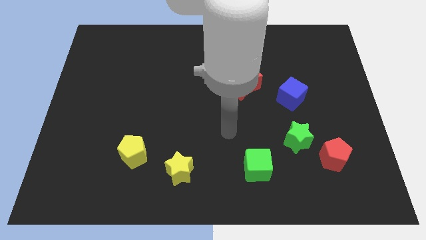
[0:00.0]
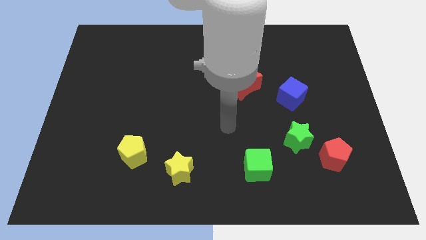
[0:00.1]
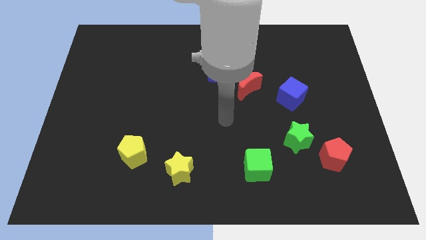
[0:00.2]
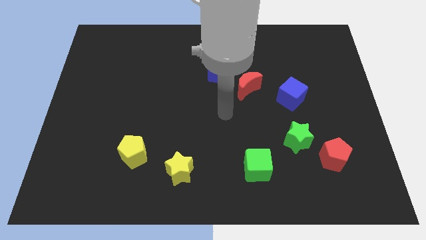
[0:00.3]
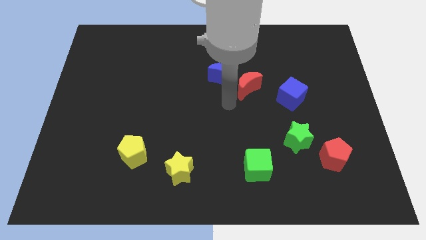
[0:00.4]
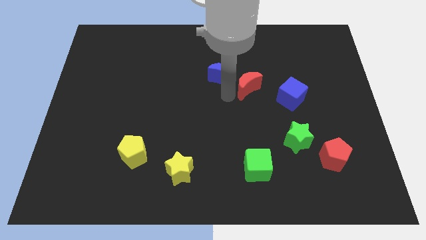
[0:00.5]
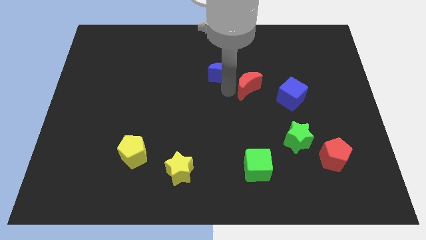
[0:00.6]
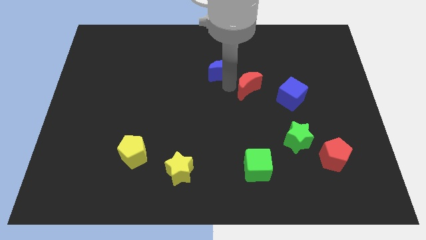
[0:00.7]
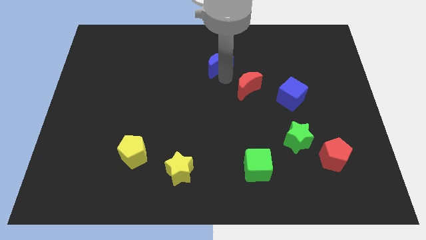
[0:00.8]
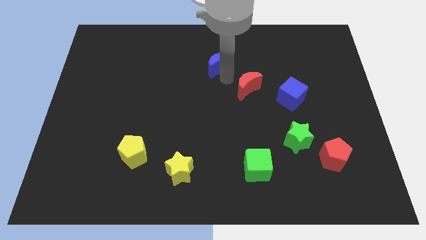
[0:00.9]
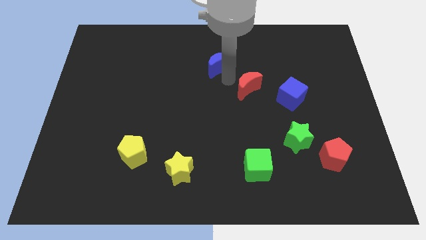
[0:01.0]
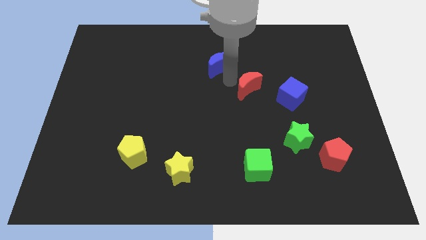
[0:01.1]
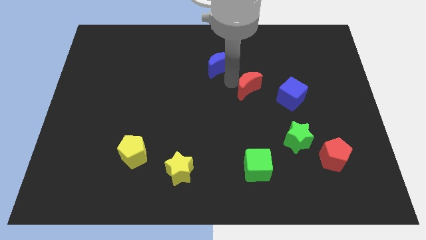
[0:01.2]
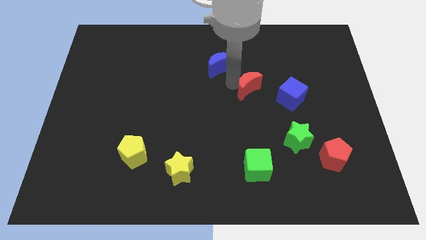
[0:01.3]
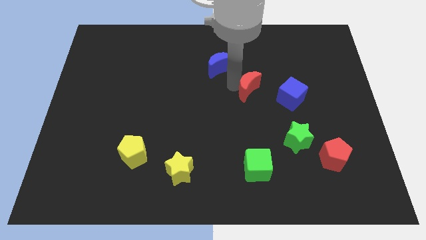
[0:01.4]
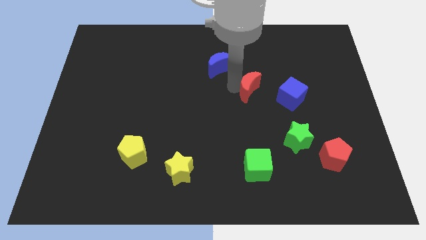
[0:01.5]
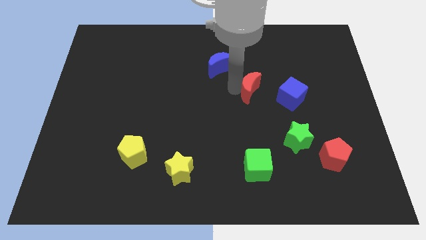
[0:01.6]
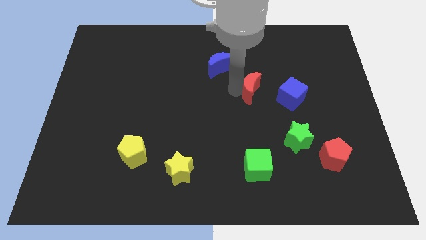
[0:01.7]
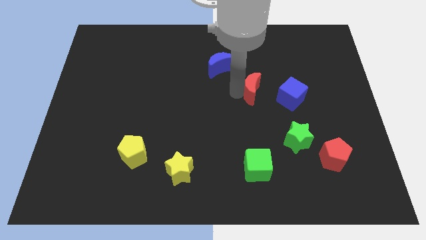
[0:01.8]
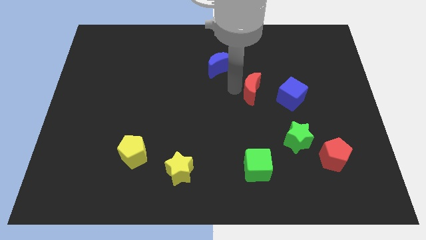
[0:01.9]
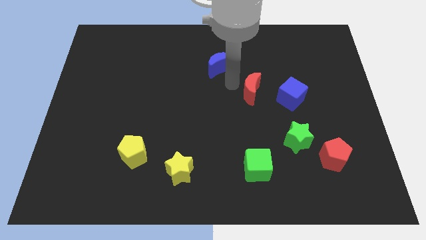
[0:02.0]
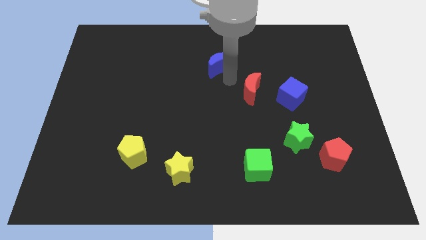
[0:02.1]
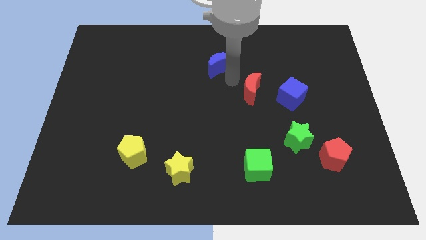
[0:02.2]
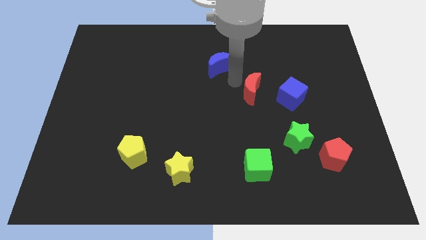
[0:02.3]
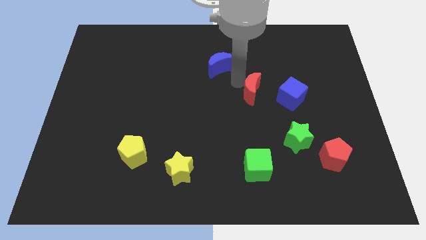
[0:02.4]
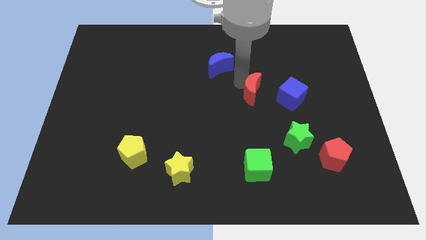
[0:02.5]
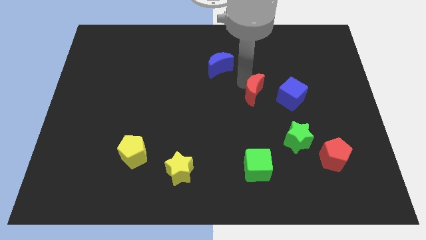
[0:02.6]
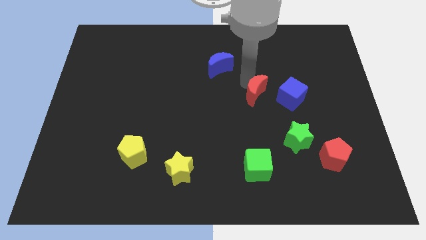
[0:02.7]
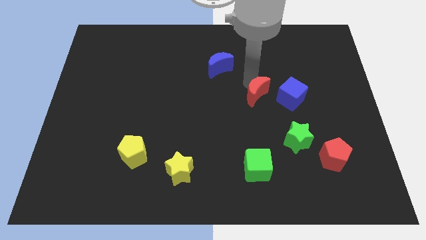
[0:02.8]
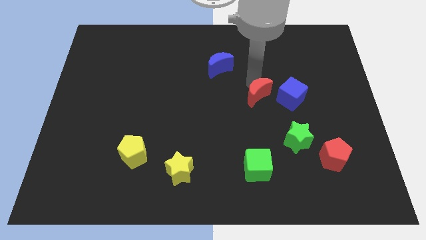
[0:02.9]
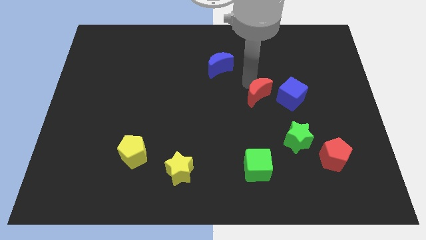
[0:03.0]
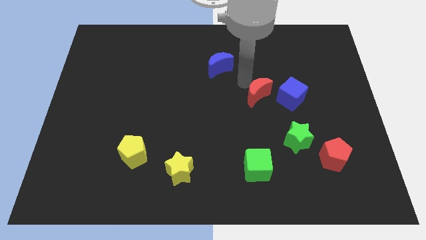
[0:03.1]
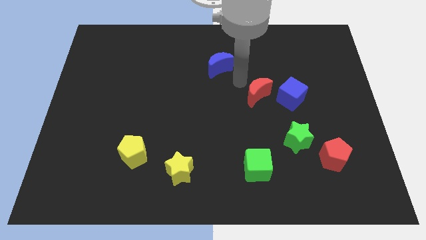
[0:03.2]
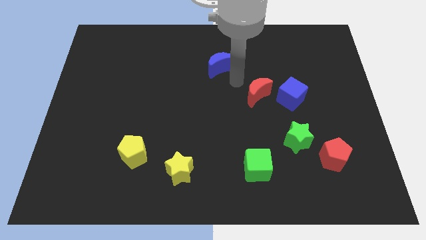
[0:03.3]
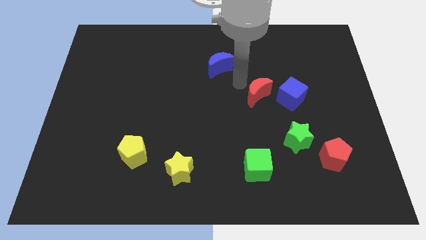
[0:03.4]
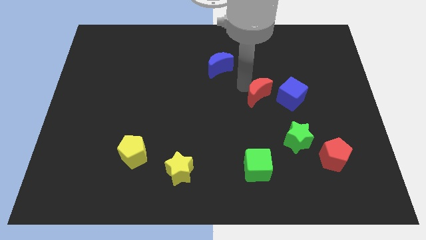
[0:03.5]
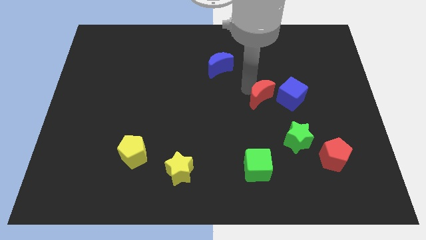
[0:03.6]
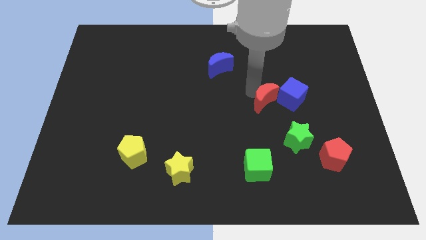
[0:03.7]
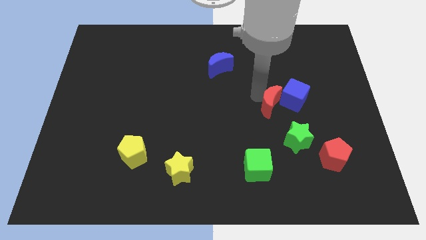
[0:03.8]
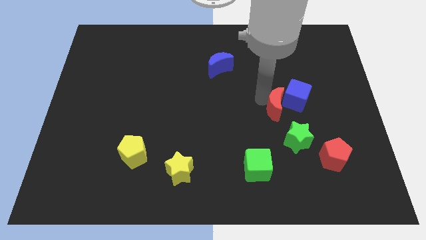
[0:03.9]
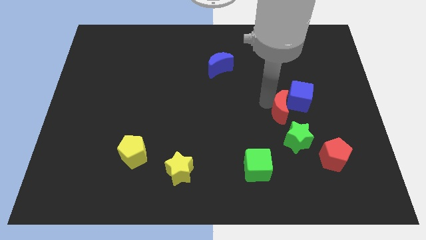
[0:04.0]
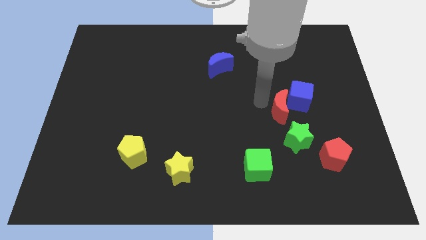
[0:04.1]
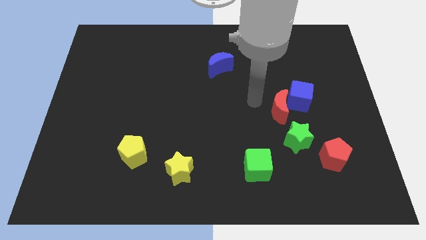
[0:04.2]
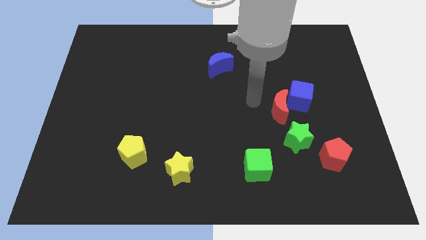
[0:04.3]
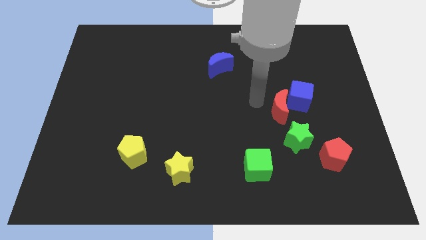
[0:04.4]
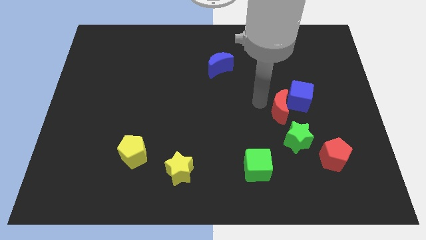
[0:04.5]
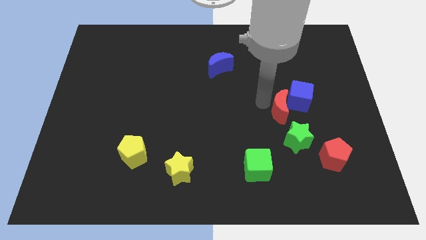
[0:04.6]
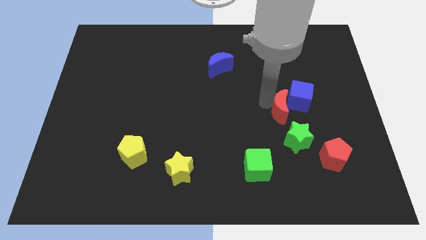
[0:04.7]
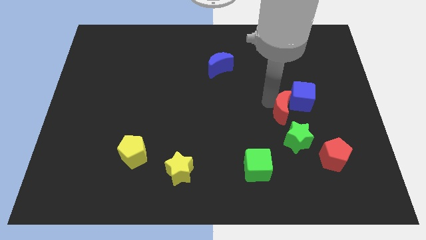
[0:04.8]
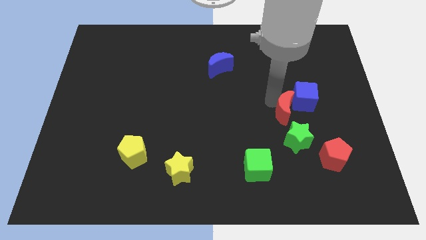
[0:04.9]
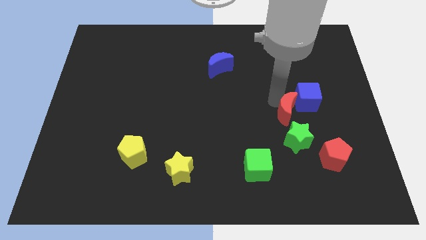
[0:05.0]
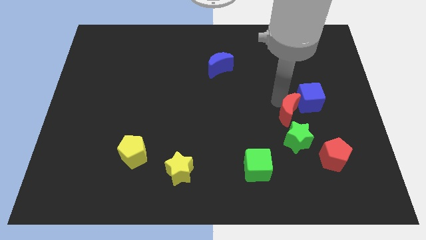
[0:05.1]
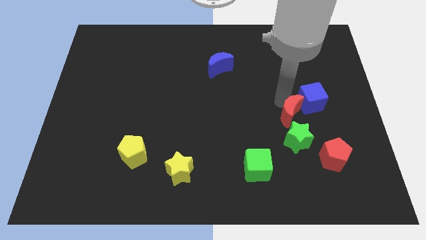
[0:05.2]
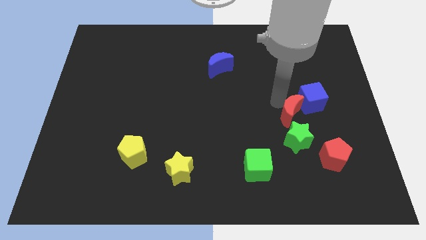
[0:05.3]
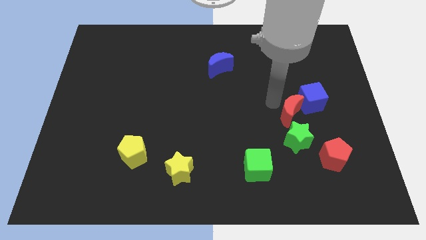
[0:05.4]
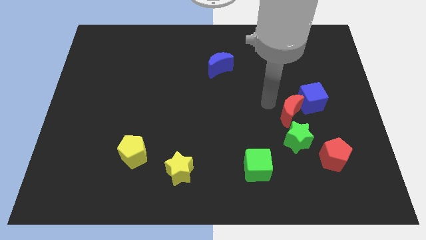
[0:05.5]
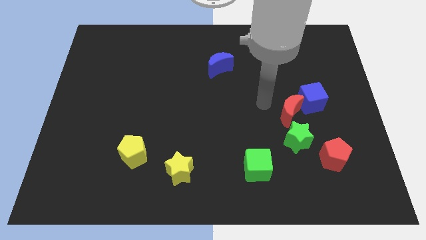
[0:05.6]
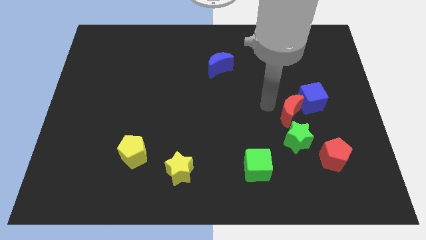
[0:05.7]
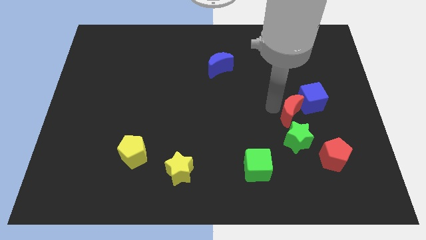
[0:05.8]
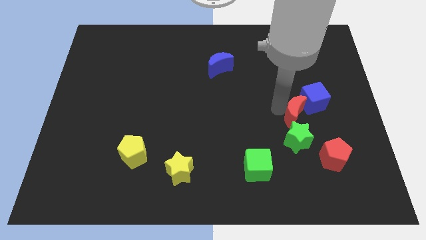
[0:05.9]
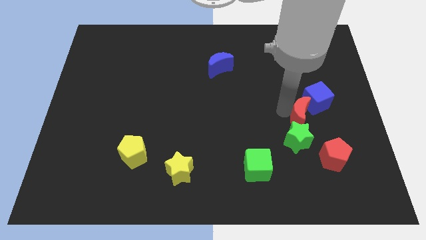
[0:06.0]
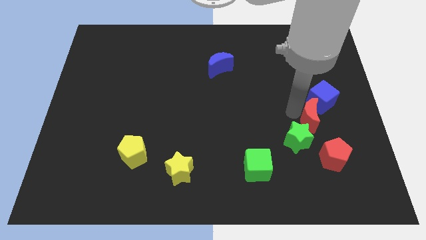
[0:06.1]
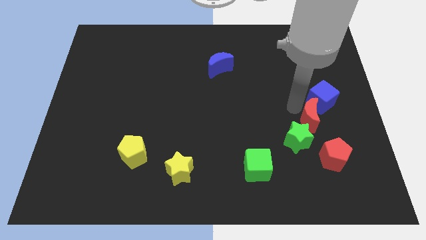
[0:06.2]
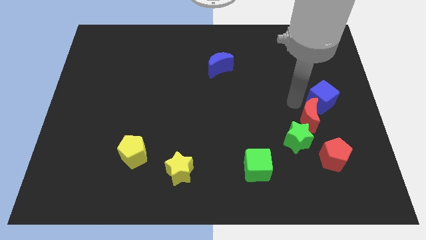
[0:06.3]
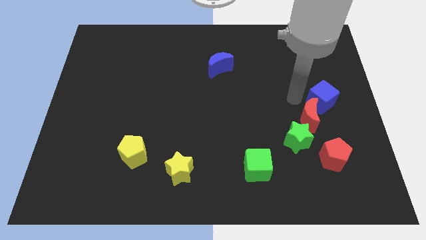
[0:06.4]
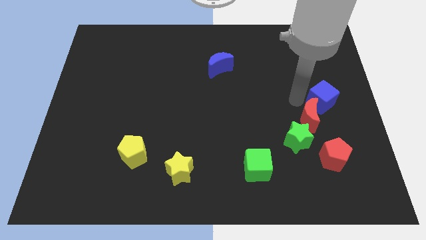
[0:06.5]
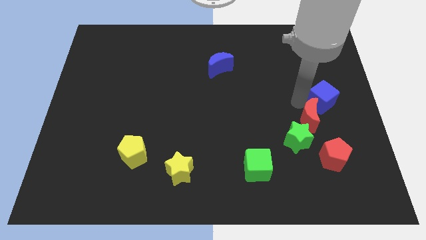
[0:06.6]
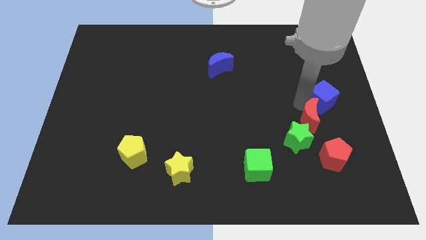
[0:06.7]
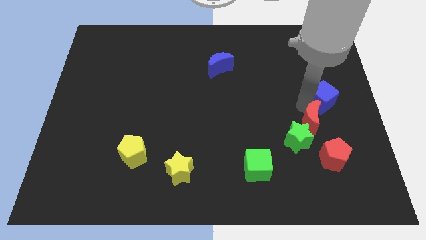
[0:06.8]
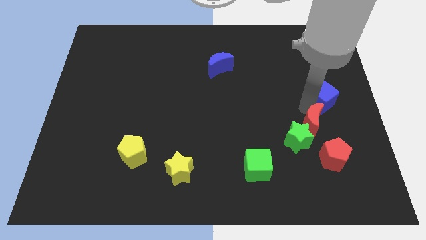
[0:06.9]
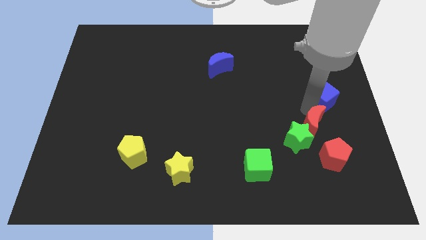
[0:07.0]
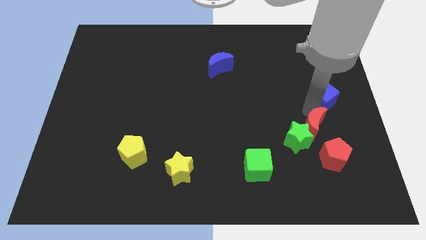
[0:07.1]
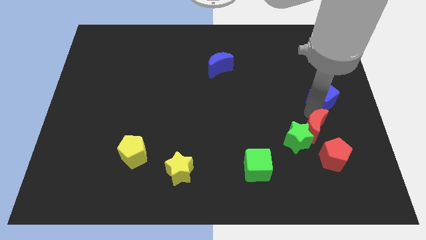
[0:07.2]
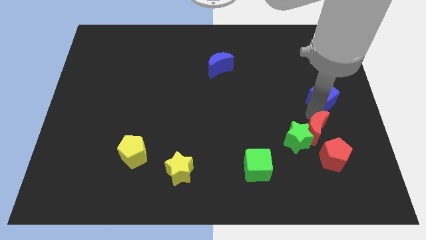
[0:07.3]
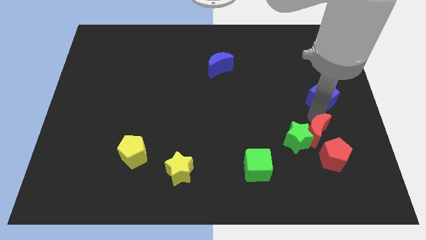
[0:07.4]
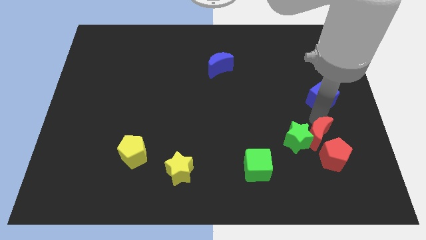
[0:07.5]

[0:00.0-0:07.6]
move the red moon close to the red pentagon

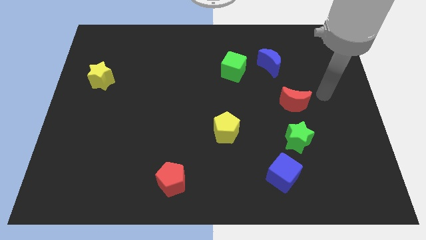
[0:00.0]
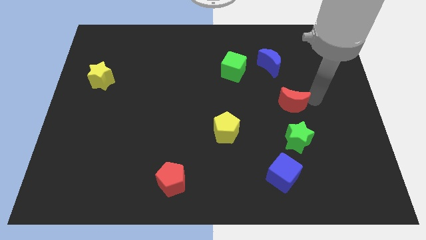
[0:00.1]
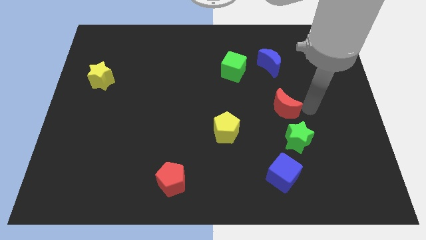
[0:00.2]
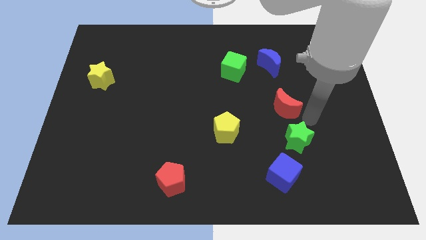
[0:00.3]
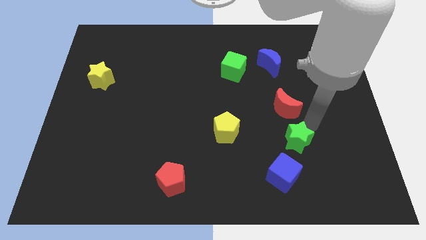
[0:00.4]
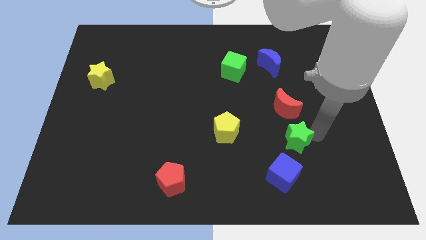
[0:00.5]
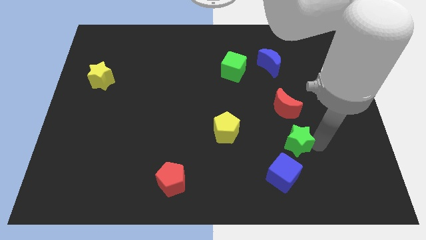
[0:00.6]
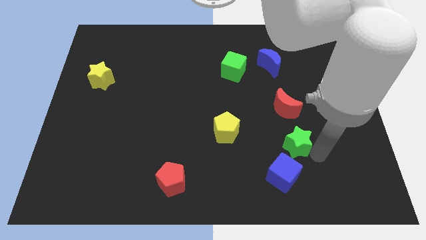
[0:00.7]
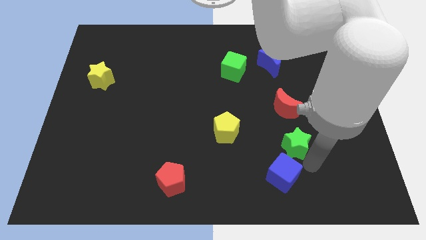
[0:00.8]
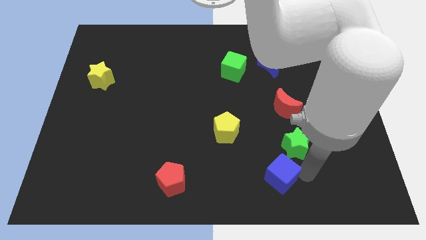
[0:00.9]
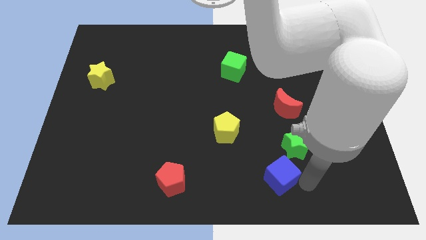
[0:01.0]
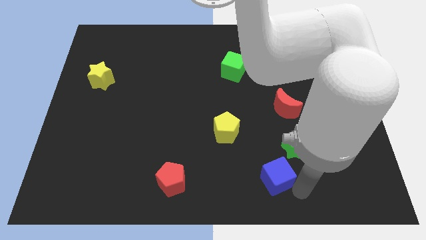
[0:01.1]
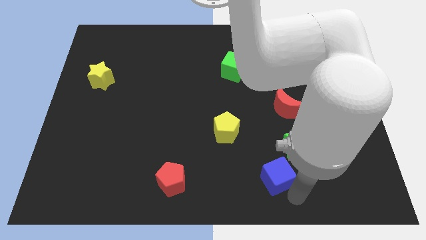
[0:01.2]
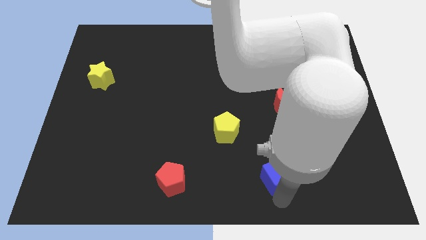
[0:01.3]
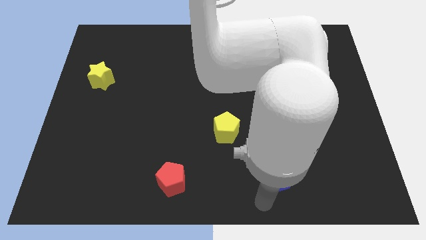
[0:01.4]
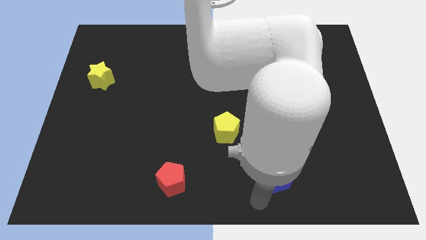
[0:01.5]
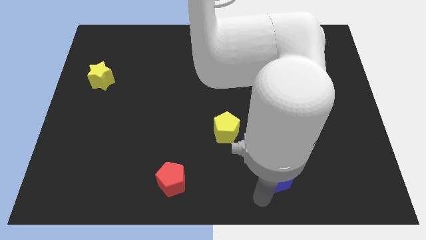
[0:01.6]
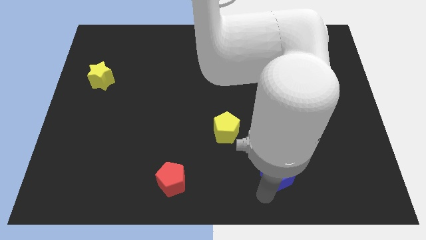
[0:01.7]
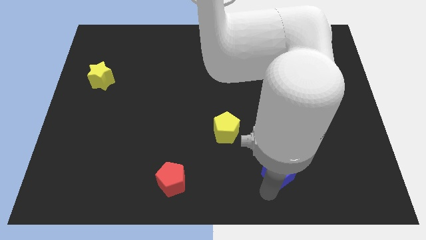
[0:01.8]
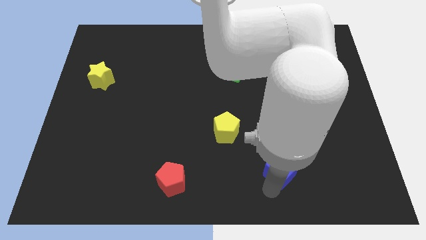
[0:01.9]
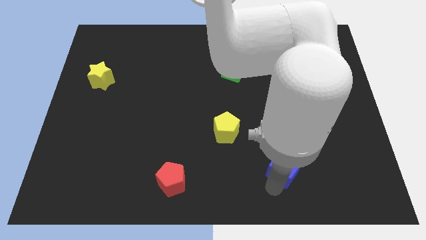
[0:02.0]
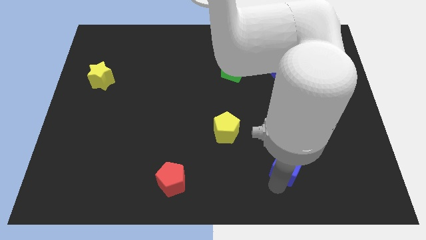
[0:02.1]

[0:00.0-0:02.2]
put the blue cube to the green star
